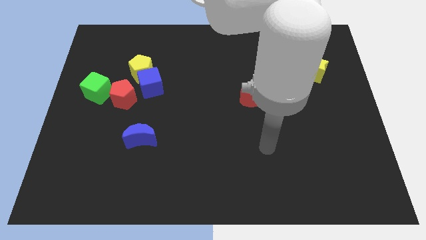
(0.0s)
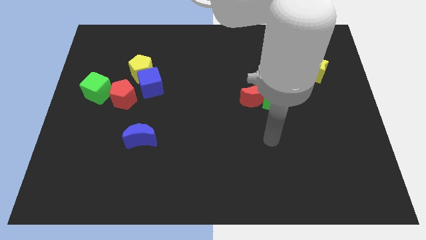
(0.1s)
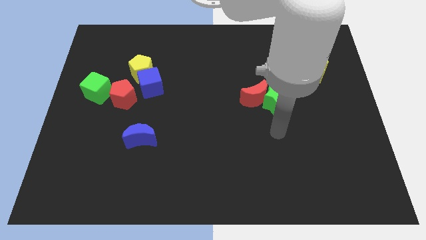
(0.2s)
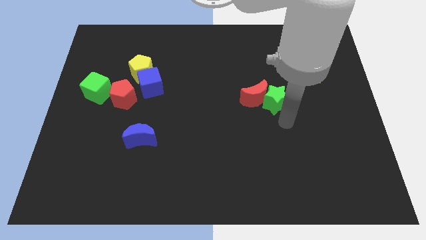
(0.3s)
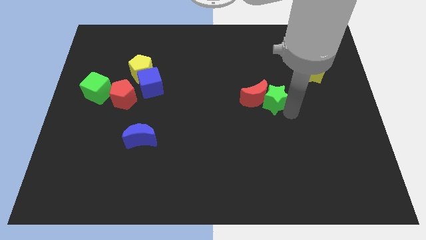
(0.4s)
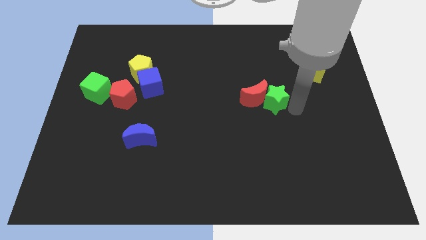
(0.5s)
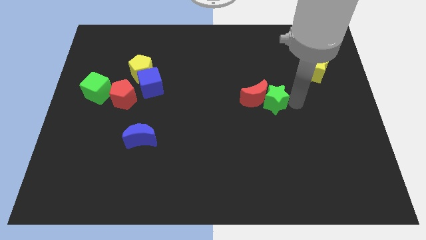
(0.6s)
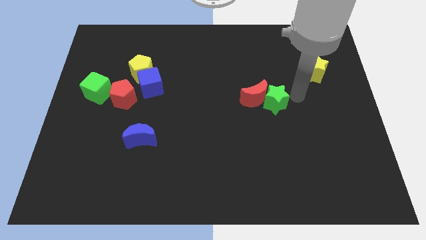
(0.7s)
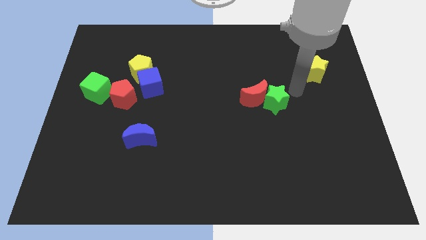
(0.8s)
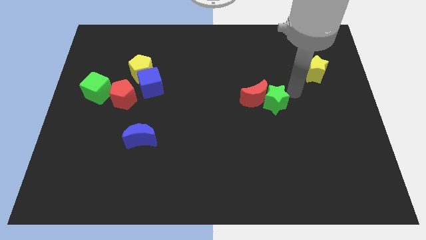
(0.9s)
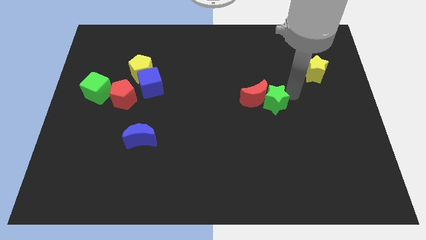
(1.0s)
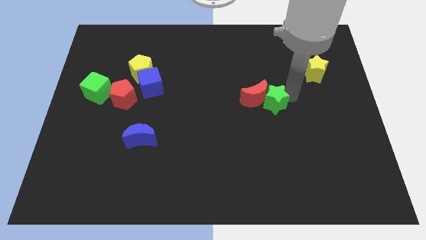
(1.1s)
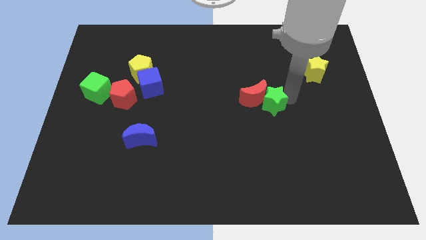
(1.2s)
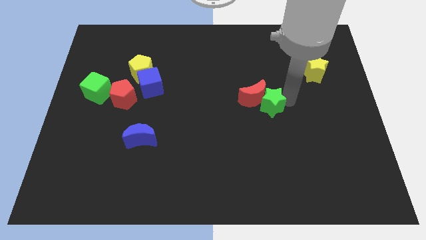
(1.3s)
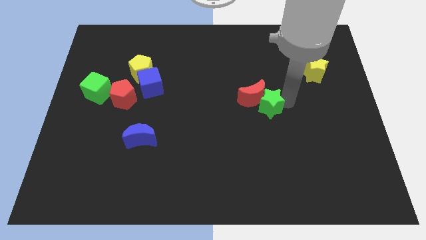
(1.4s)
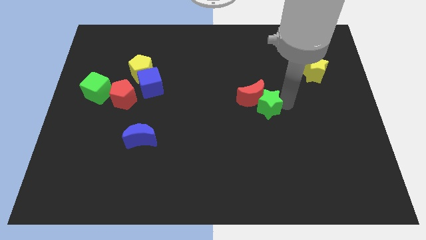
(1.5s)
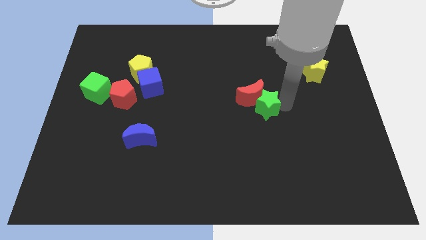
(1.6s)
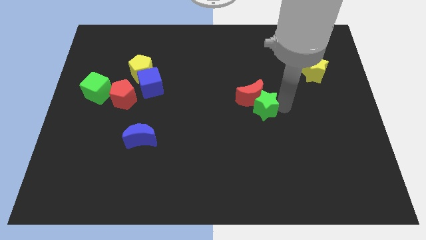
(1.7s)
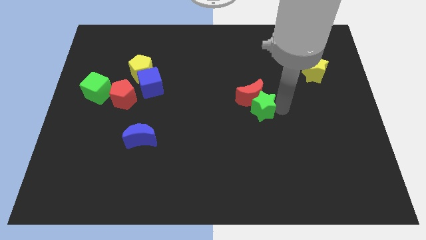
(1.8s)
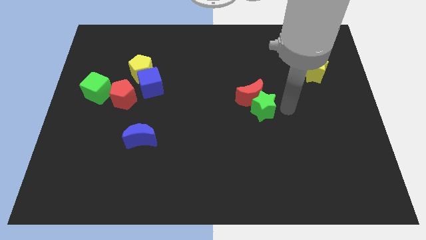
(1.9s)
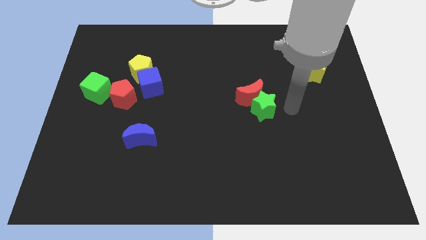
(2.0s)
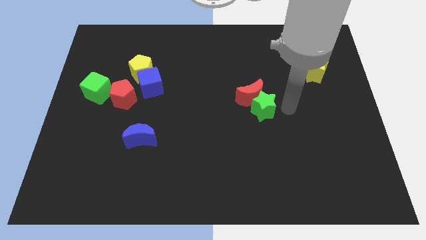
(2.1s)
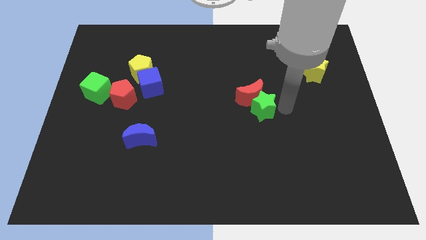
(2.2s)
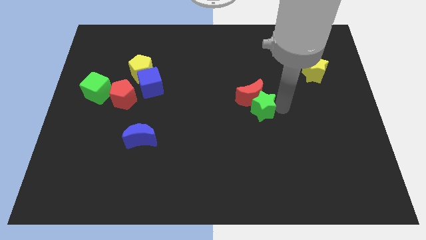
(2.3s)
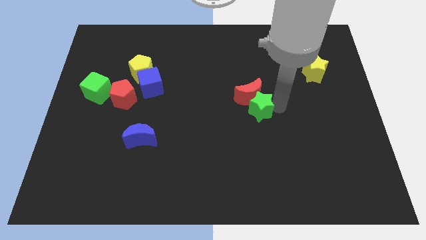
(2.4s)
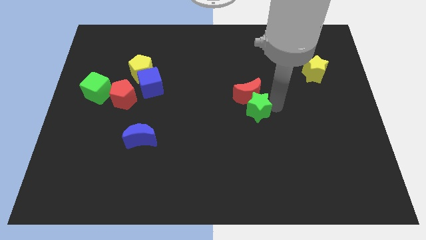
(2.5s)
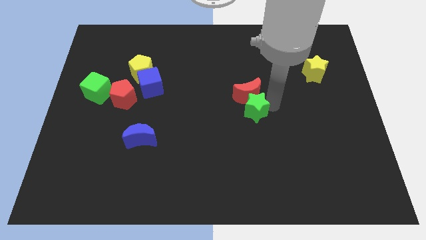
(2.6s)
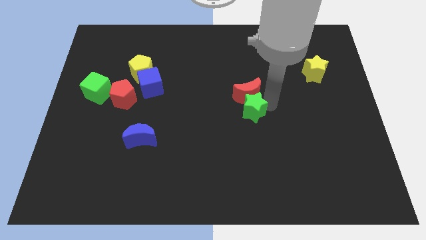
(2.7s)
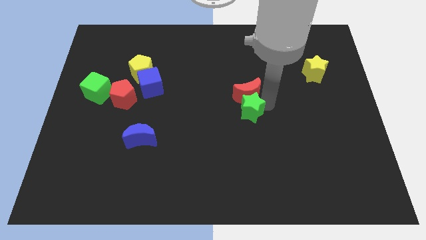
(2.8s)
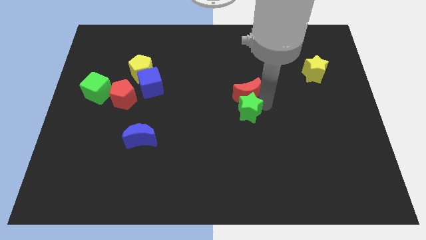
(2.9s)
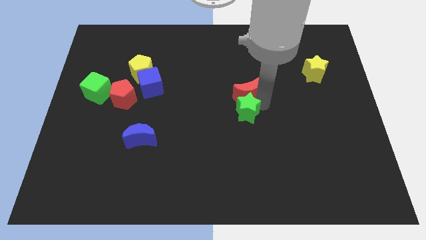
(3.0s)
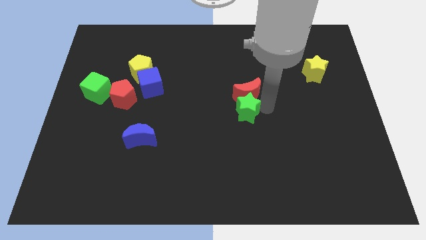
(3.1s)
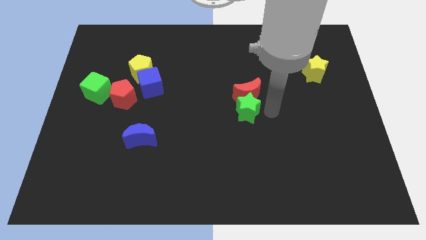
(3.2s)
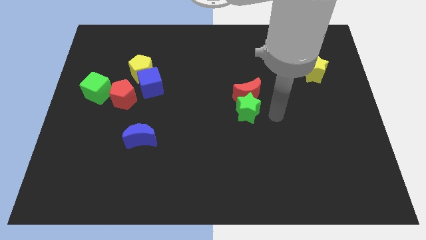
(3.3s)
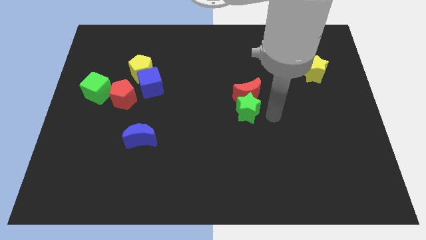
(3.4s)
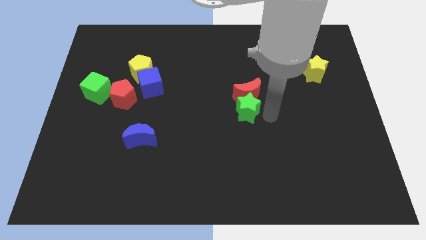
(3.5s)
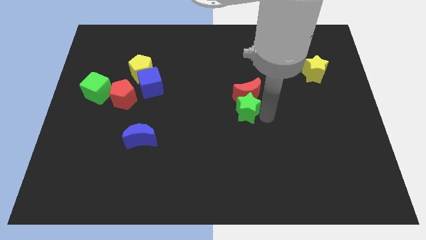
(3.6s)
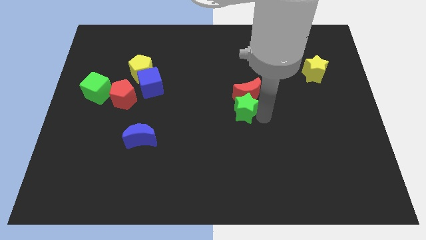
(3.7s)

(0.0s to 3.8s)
push the green star a little to the left

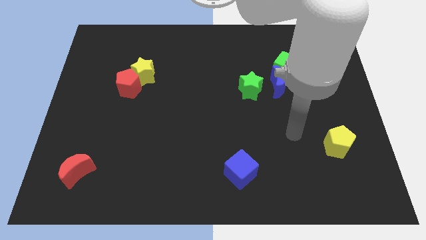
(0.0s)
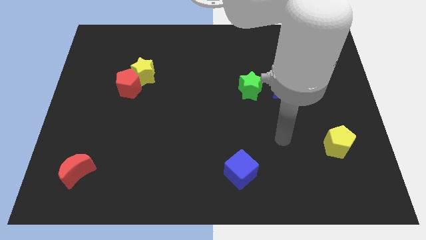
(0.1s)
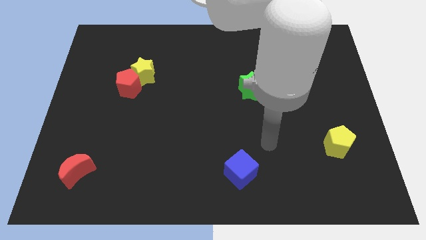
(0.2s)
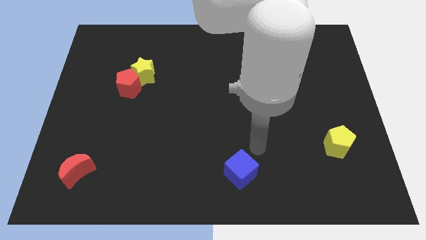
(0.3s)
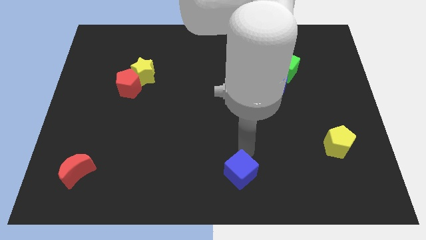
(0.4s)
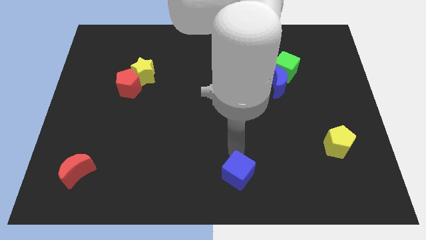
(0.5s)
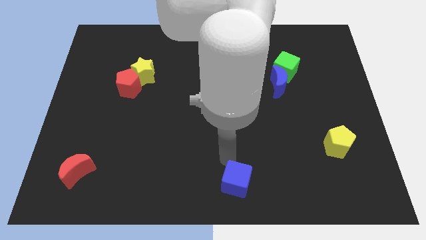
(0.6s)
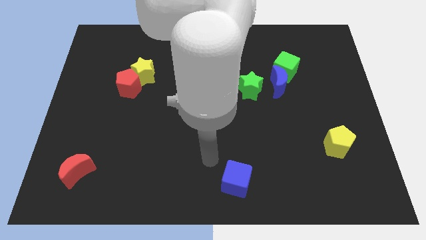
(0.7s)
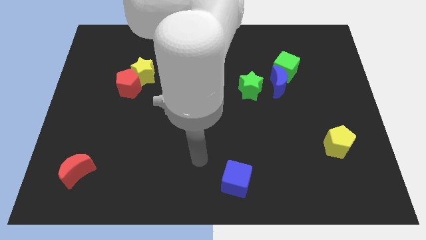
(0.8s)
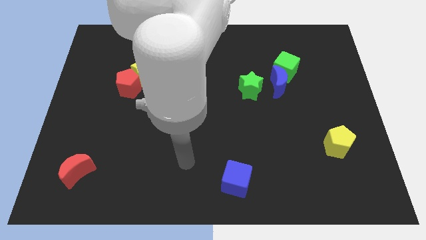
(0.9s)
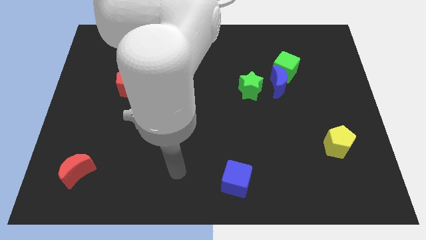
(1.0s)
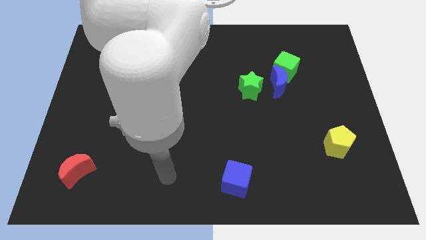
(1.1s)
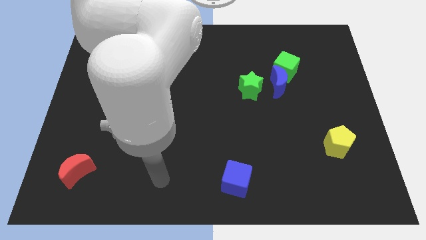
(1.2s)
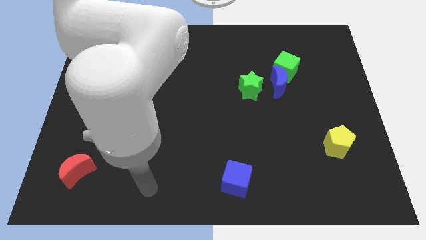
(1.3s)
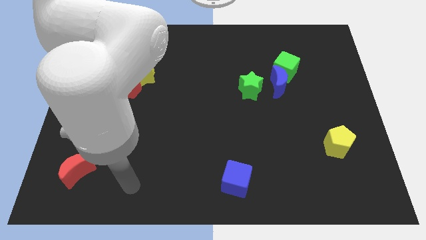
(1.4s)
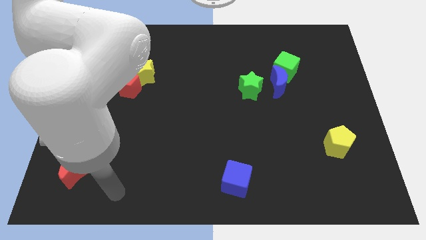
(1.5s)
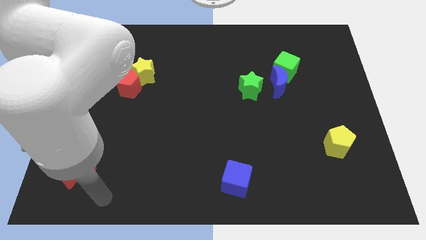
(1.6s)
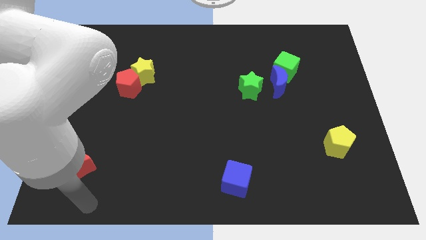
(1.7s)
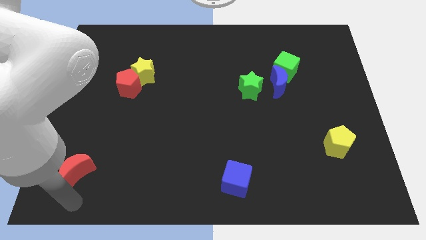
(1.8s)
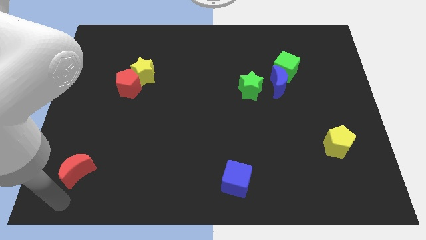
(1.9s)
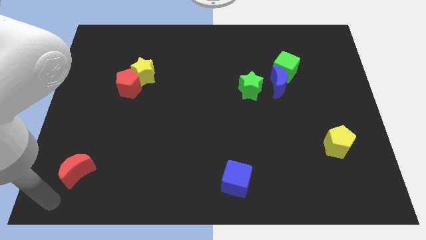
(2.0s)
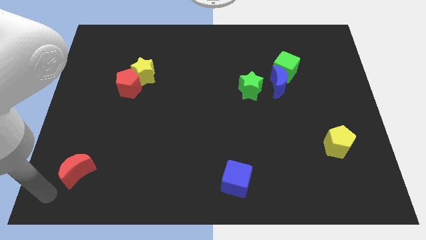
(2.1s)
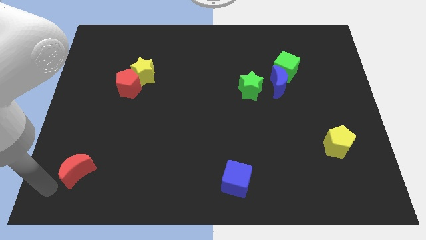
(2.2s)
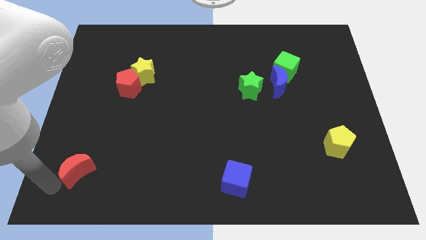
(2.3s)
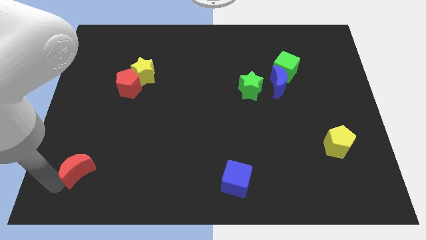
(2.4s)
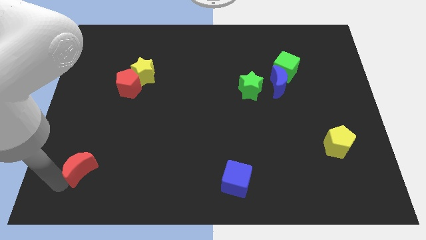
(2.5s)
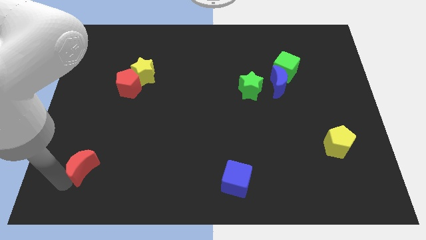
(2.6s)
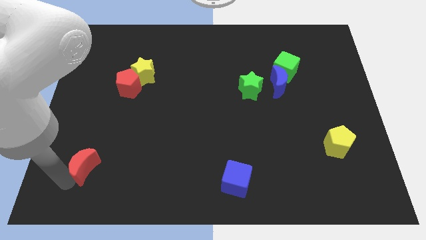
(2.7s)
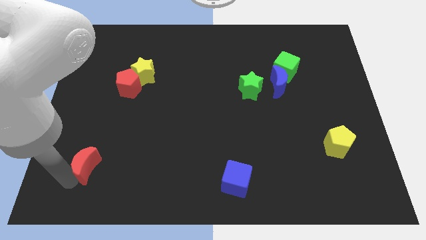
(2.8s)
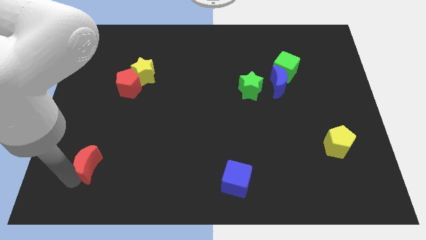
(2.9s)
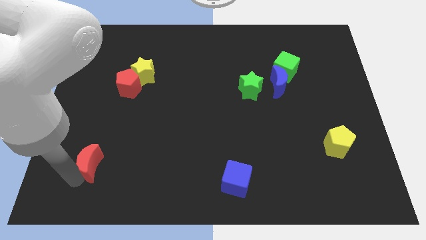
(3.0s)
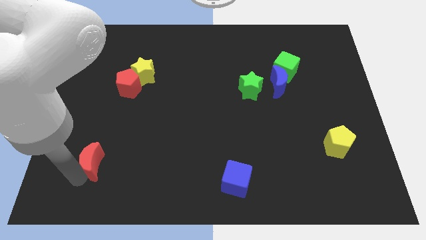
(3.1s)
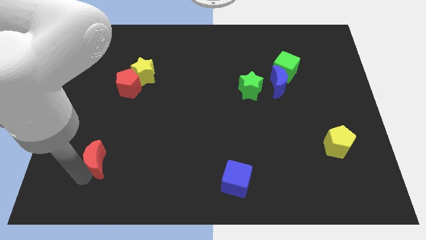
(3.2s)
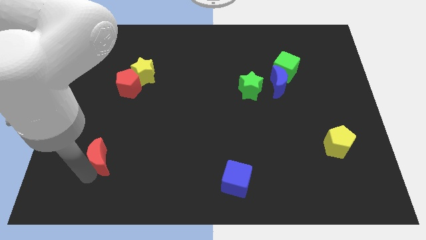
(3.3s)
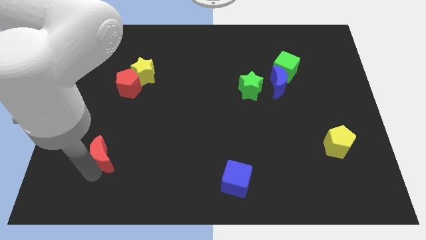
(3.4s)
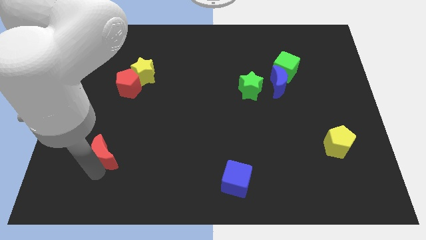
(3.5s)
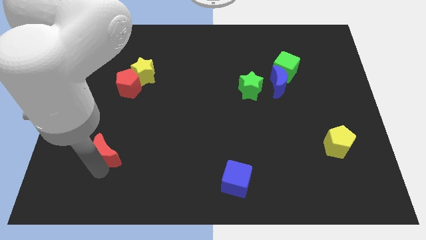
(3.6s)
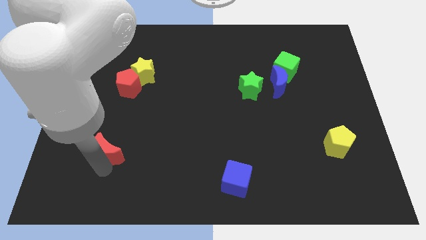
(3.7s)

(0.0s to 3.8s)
move the red moon diagonally upwards and right a little bit

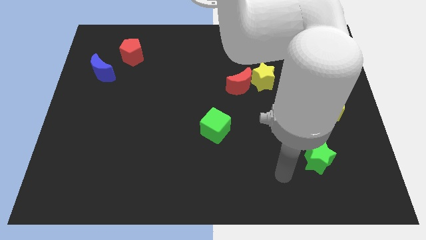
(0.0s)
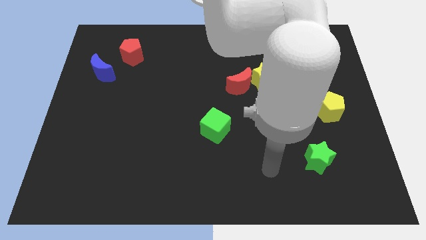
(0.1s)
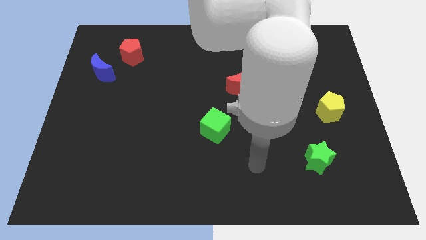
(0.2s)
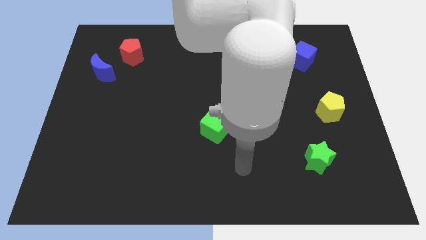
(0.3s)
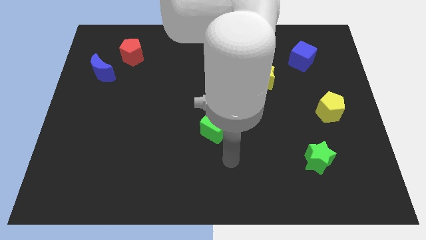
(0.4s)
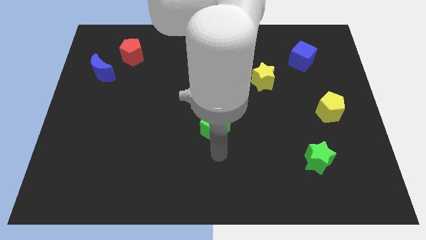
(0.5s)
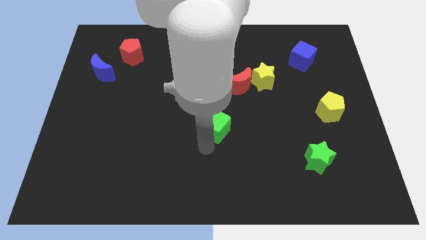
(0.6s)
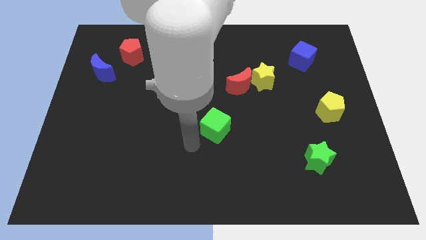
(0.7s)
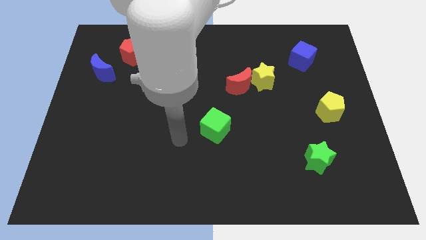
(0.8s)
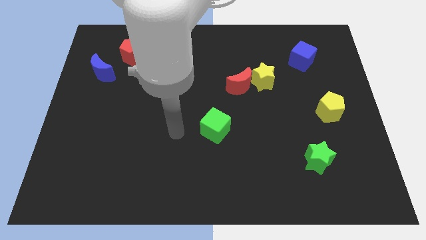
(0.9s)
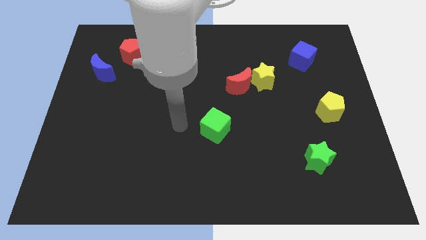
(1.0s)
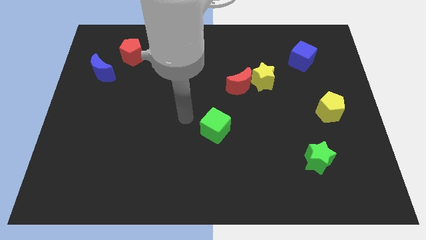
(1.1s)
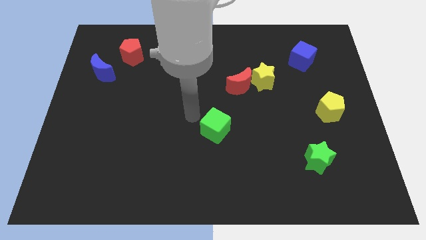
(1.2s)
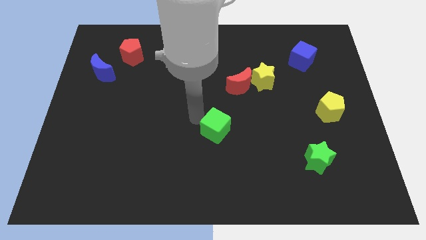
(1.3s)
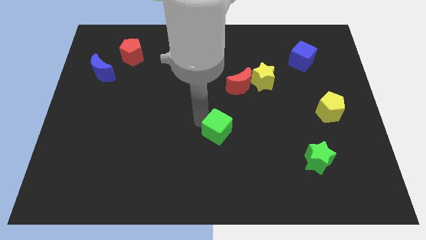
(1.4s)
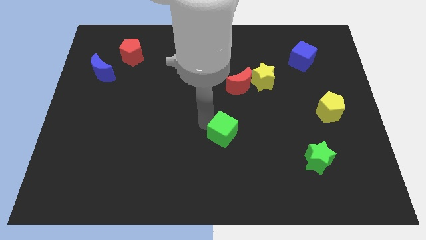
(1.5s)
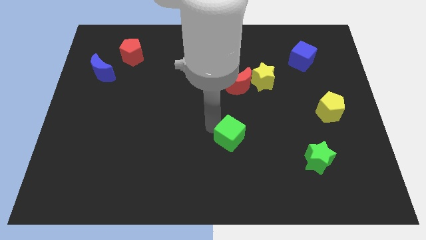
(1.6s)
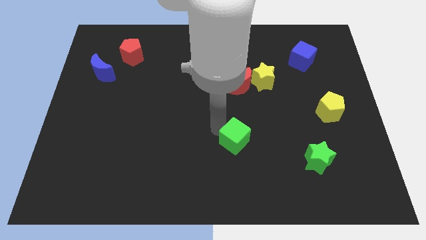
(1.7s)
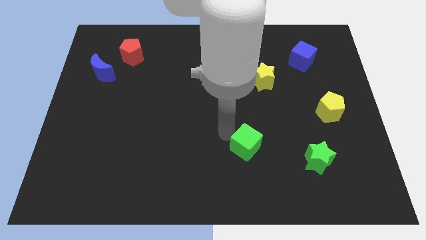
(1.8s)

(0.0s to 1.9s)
move the green cube downwards and right somewhat
